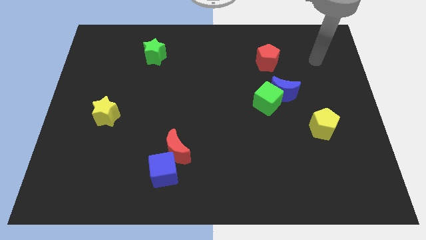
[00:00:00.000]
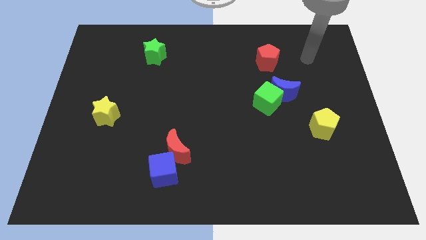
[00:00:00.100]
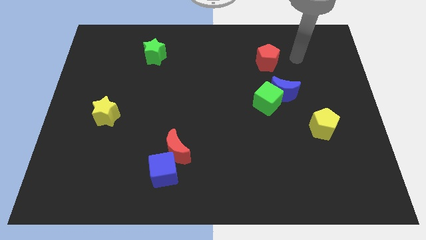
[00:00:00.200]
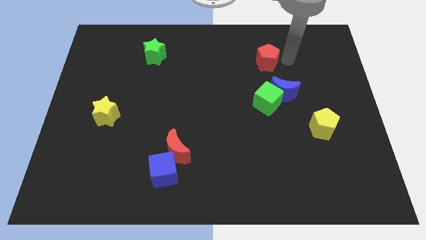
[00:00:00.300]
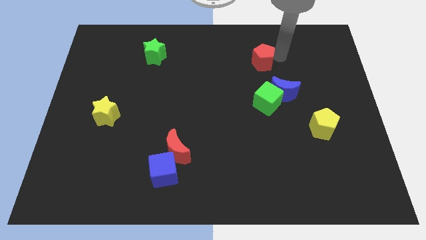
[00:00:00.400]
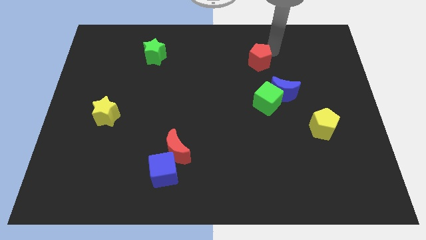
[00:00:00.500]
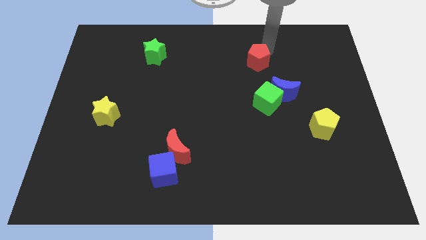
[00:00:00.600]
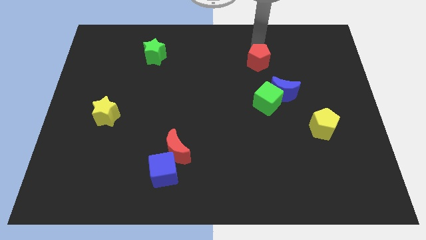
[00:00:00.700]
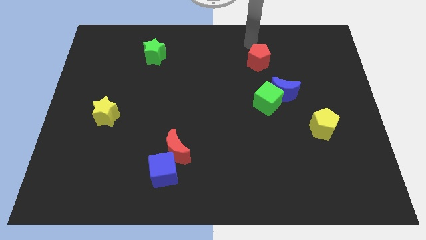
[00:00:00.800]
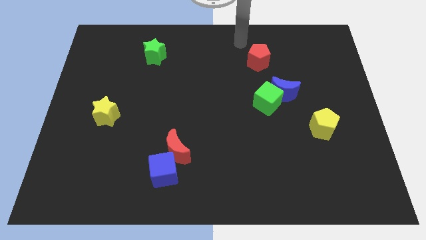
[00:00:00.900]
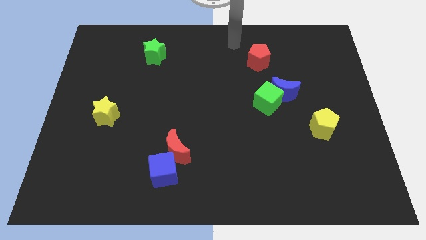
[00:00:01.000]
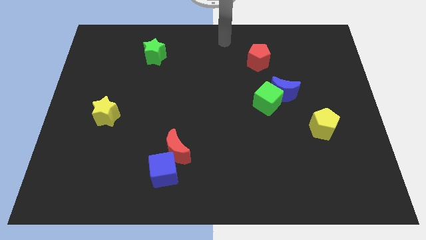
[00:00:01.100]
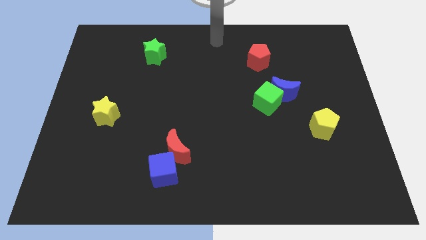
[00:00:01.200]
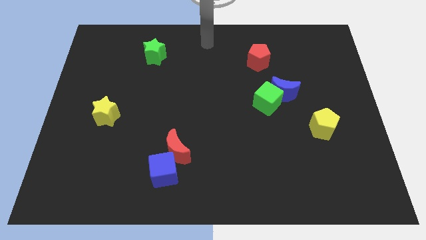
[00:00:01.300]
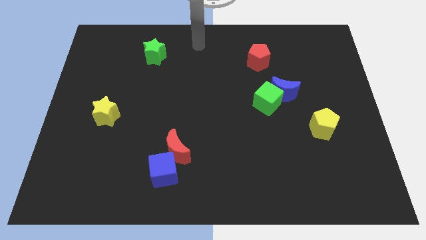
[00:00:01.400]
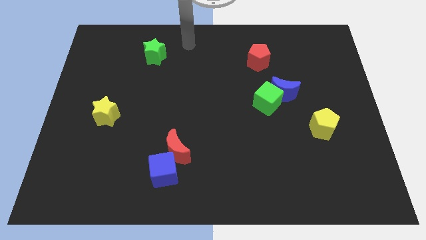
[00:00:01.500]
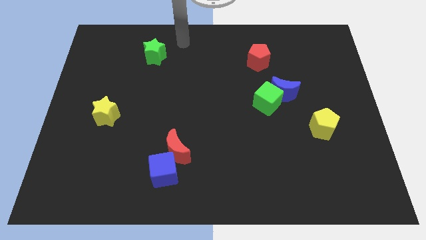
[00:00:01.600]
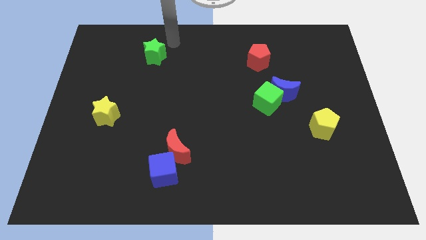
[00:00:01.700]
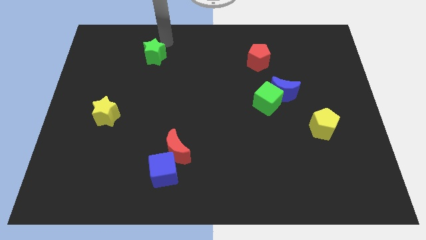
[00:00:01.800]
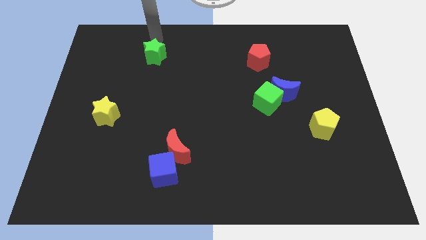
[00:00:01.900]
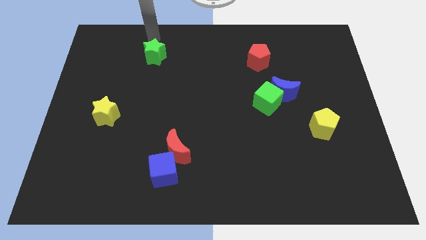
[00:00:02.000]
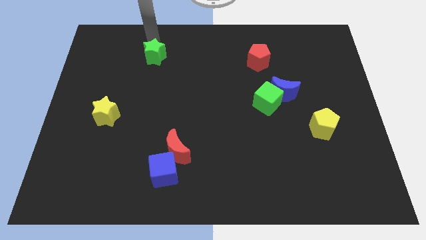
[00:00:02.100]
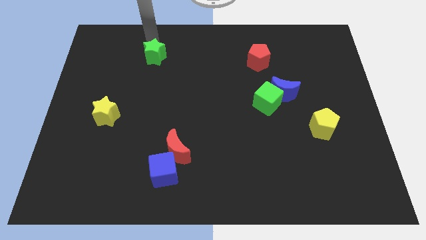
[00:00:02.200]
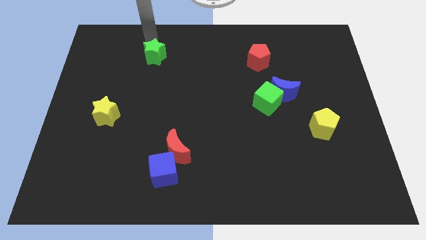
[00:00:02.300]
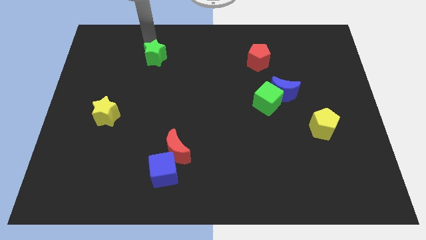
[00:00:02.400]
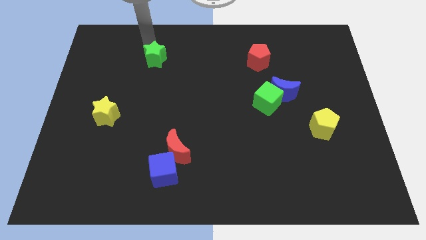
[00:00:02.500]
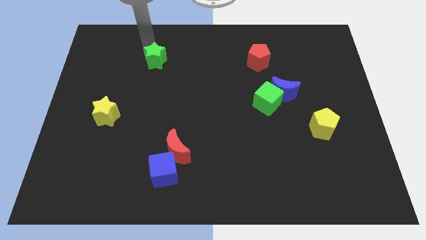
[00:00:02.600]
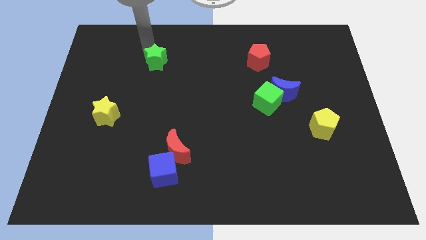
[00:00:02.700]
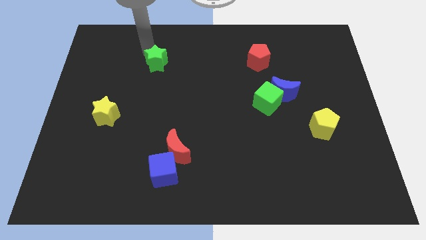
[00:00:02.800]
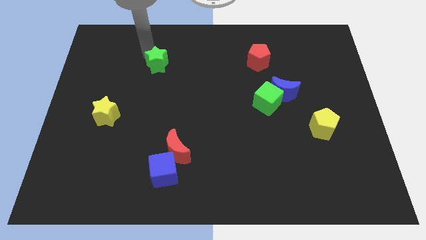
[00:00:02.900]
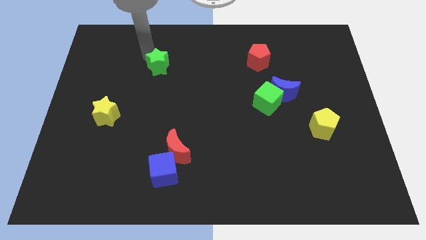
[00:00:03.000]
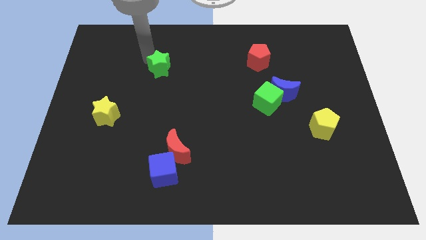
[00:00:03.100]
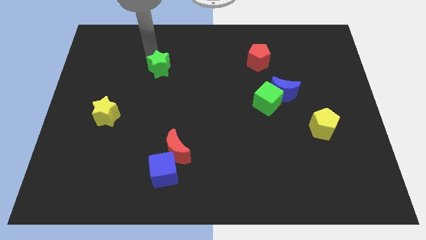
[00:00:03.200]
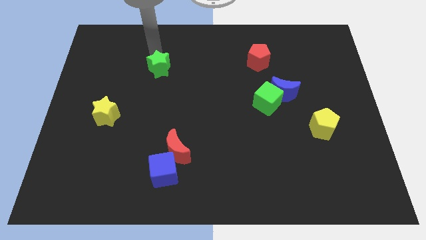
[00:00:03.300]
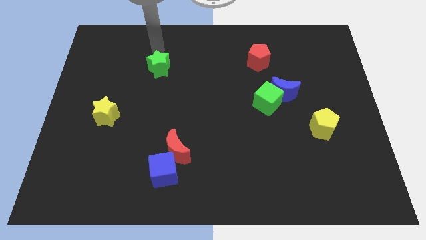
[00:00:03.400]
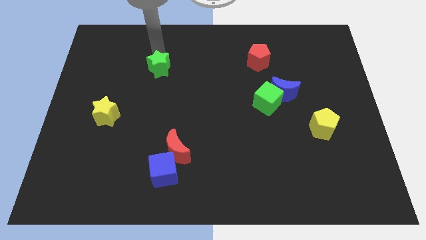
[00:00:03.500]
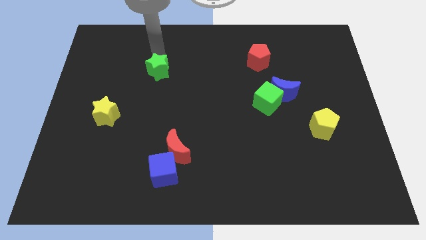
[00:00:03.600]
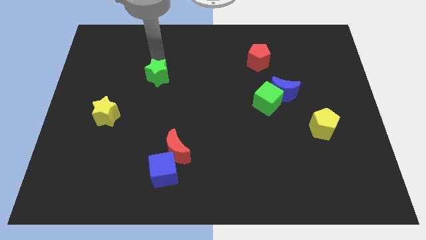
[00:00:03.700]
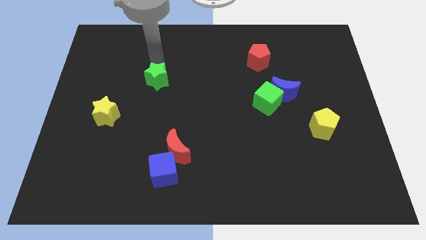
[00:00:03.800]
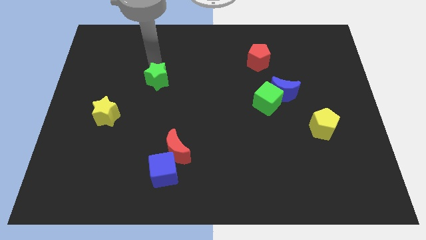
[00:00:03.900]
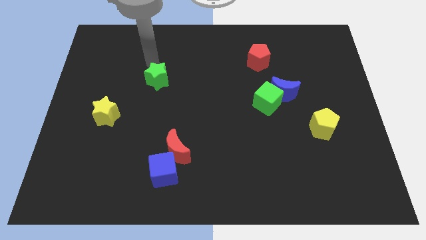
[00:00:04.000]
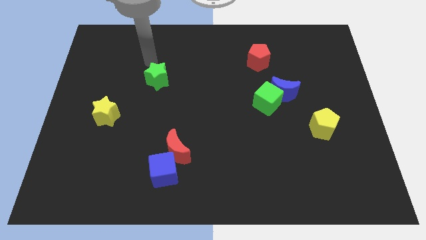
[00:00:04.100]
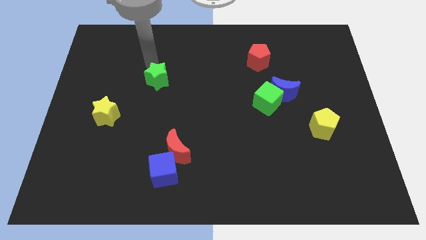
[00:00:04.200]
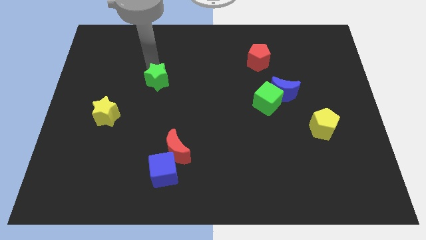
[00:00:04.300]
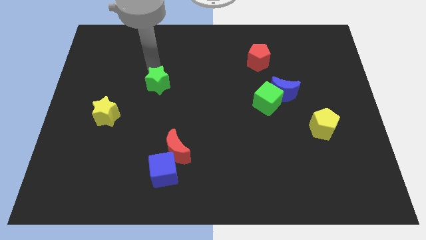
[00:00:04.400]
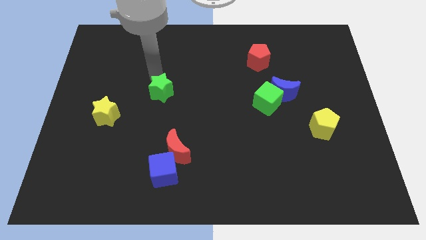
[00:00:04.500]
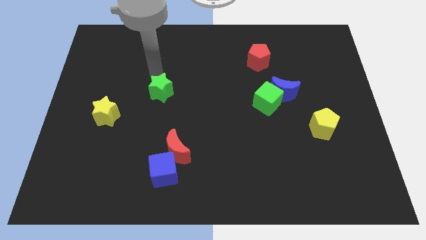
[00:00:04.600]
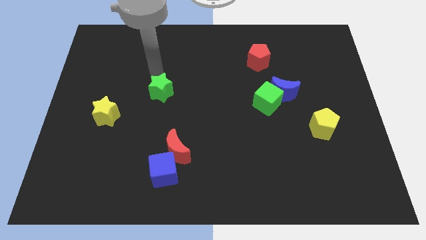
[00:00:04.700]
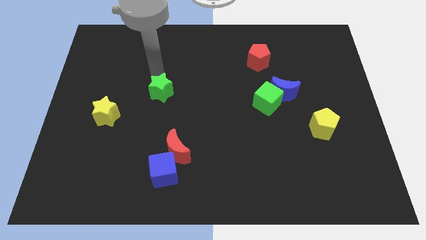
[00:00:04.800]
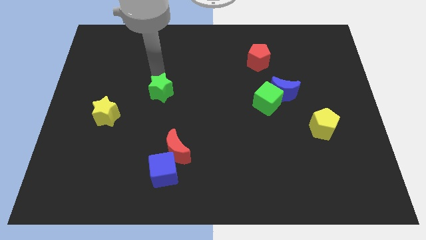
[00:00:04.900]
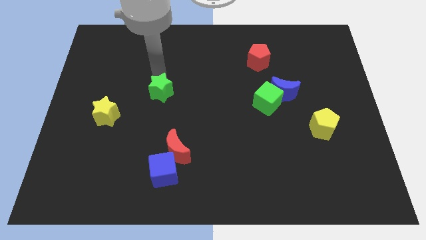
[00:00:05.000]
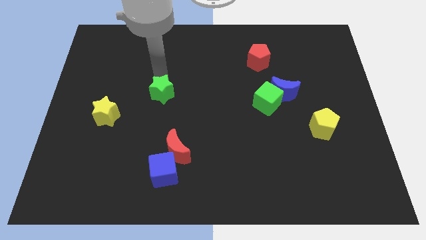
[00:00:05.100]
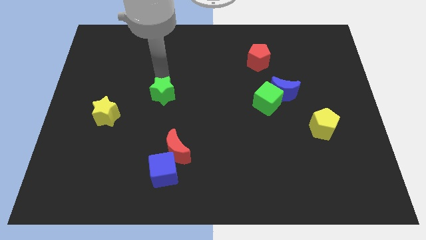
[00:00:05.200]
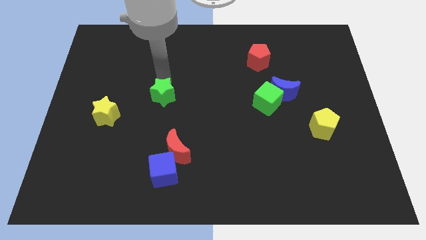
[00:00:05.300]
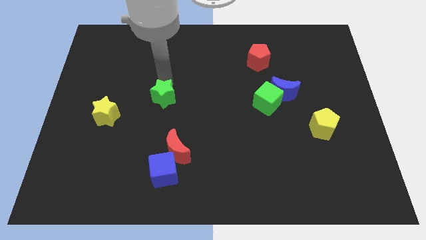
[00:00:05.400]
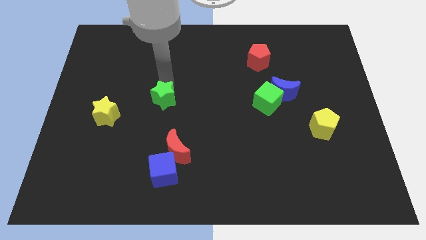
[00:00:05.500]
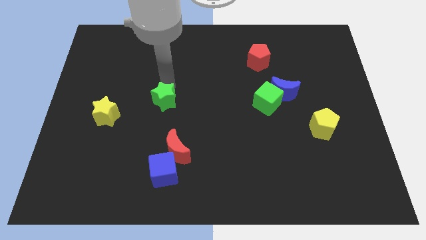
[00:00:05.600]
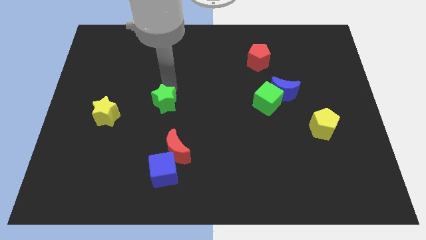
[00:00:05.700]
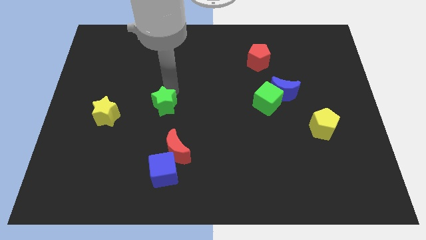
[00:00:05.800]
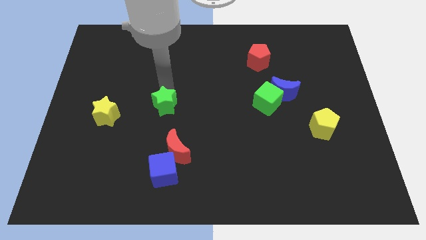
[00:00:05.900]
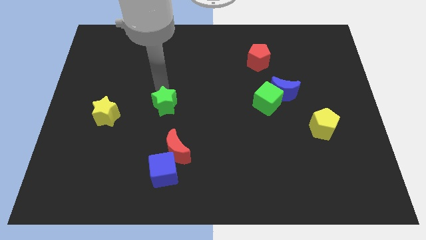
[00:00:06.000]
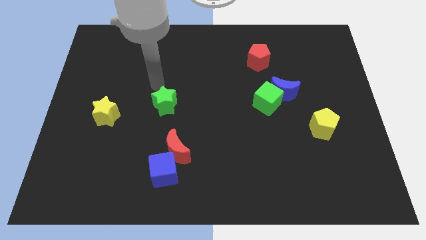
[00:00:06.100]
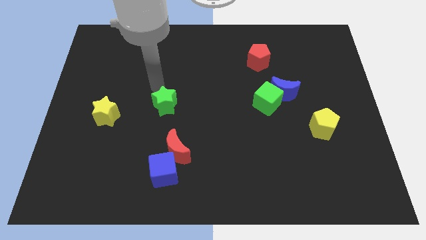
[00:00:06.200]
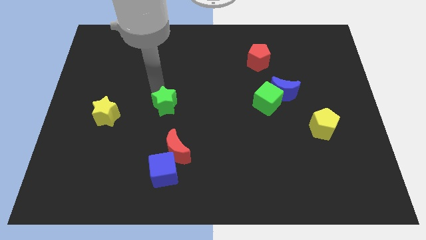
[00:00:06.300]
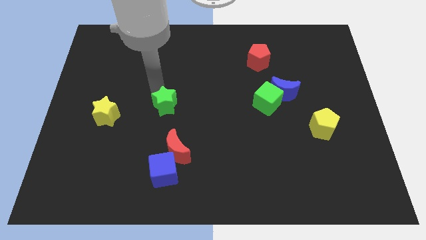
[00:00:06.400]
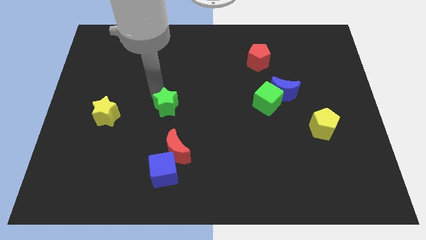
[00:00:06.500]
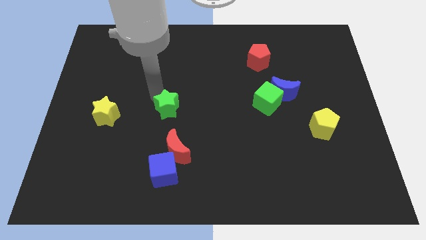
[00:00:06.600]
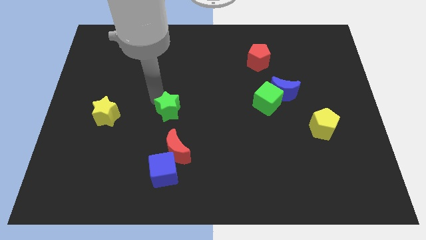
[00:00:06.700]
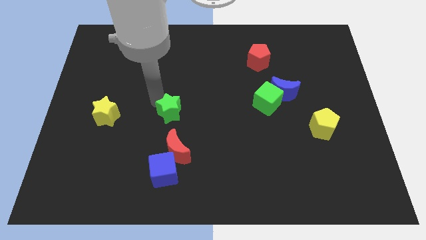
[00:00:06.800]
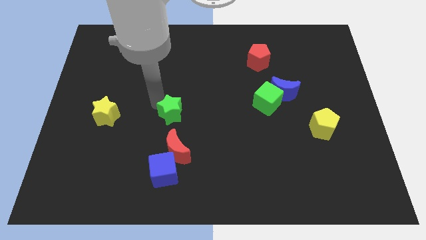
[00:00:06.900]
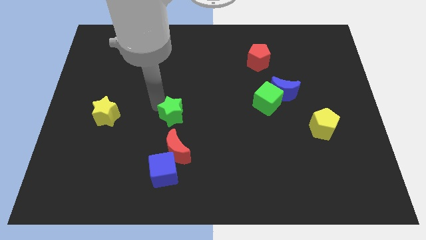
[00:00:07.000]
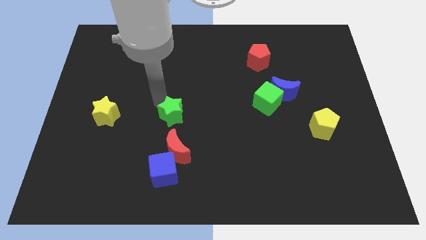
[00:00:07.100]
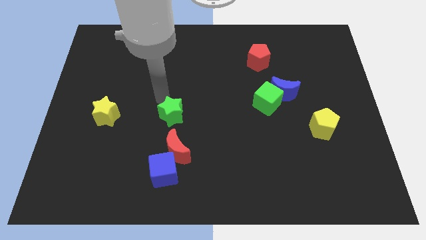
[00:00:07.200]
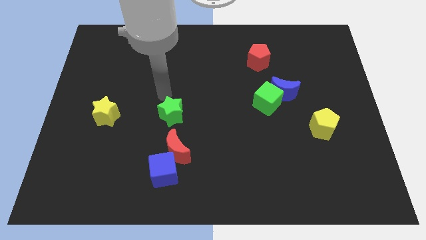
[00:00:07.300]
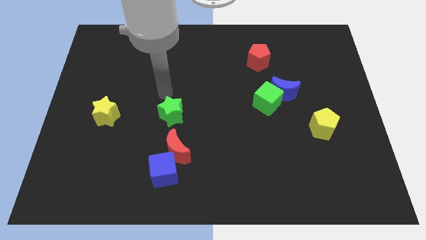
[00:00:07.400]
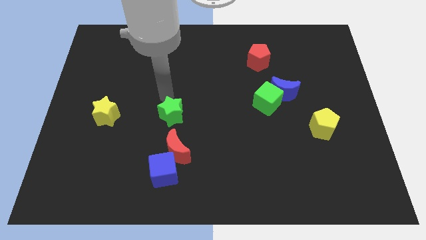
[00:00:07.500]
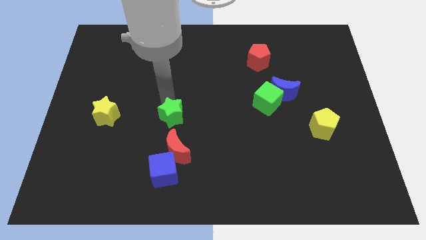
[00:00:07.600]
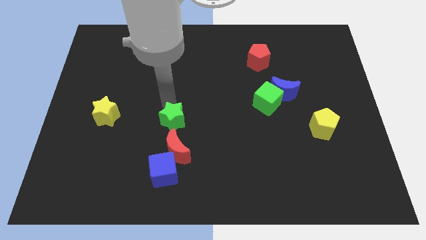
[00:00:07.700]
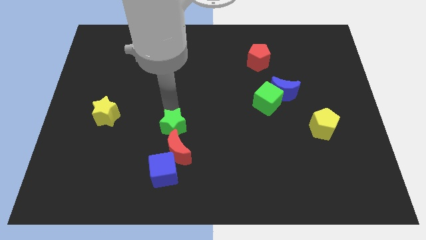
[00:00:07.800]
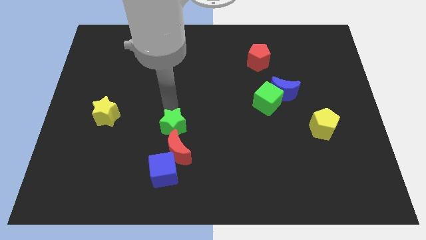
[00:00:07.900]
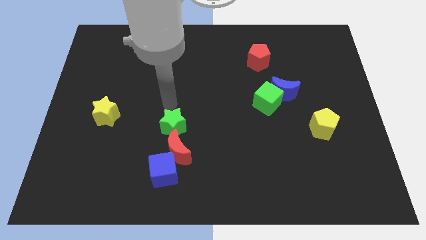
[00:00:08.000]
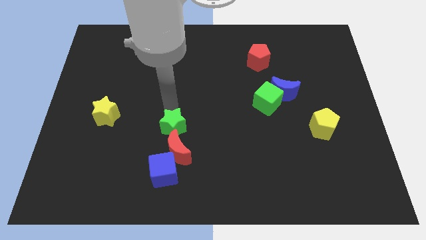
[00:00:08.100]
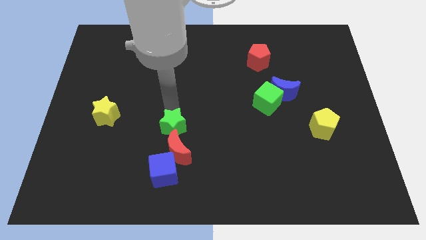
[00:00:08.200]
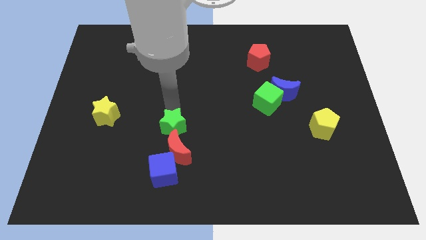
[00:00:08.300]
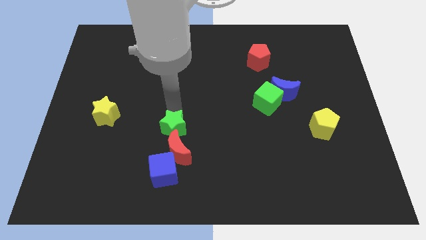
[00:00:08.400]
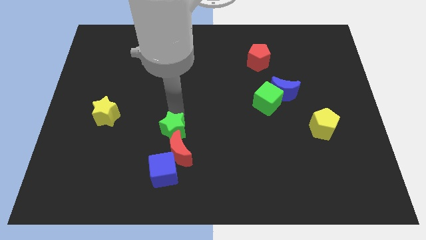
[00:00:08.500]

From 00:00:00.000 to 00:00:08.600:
move the green star close to the red moon
